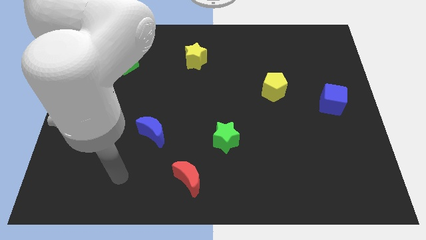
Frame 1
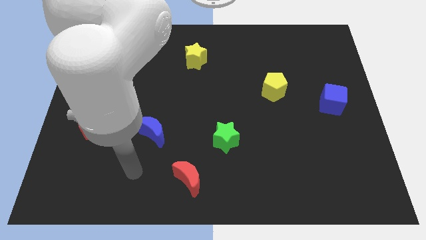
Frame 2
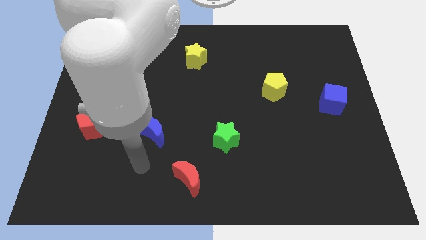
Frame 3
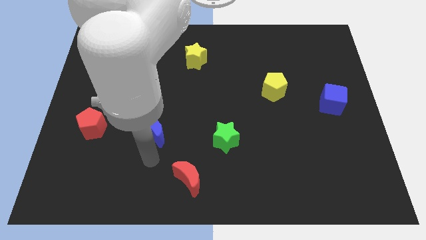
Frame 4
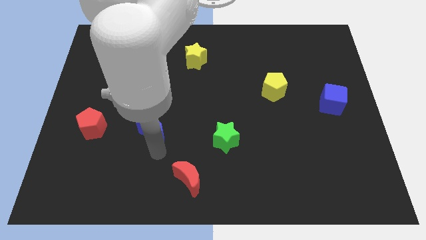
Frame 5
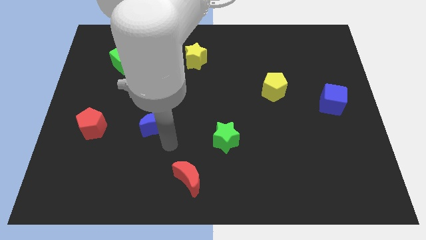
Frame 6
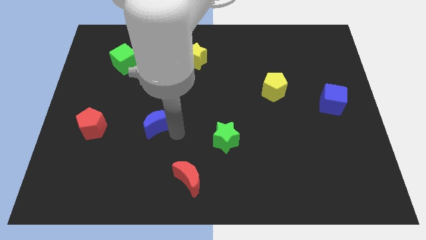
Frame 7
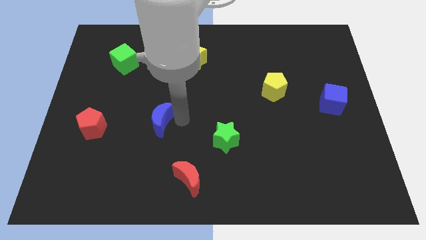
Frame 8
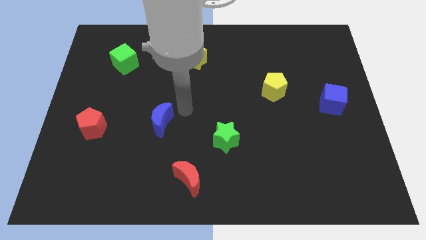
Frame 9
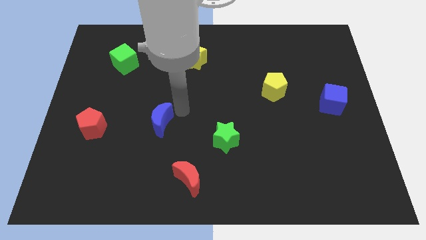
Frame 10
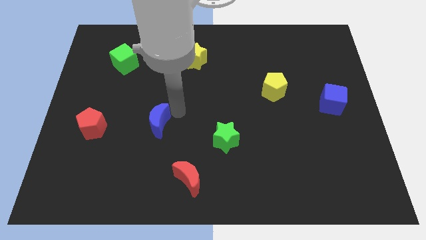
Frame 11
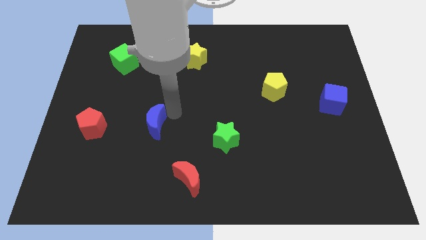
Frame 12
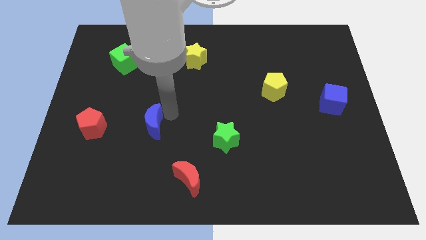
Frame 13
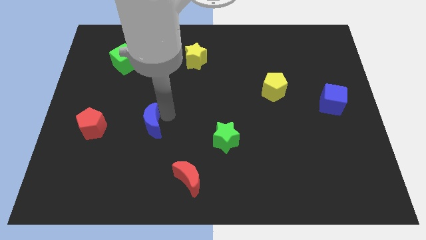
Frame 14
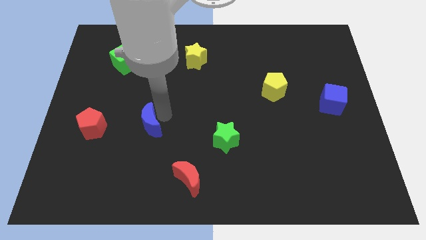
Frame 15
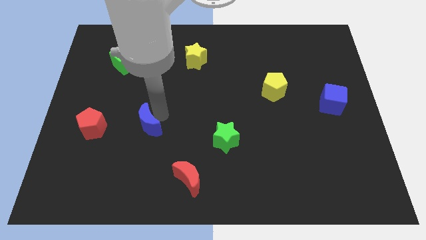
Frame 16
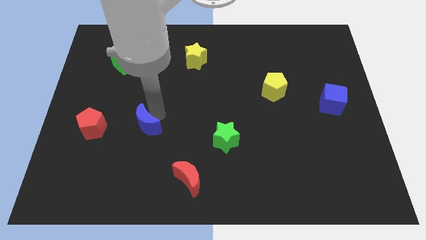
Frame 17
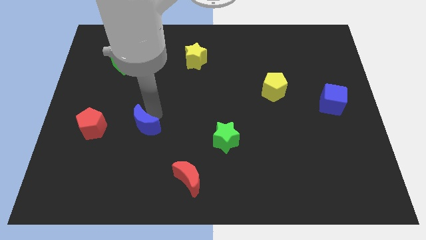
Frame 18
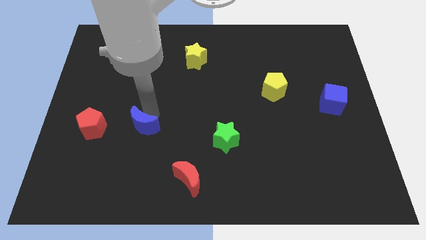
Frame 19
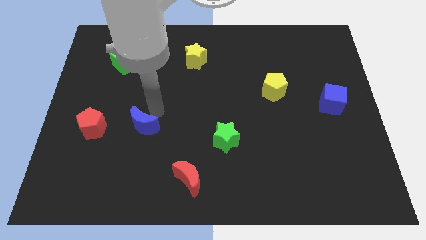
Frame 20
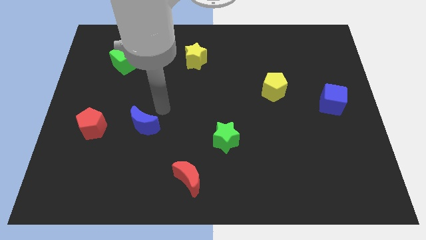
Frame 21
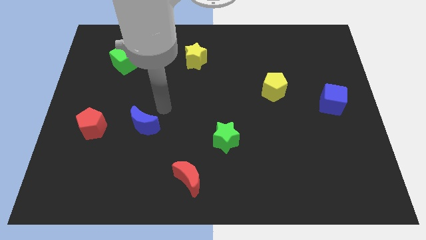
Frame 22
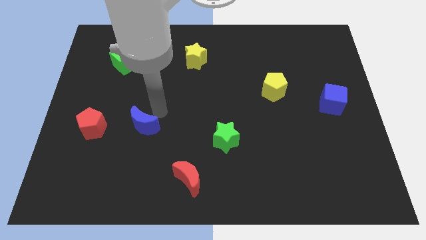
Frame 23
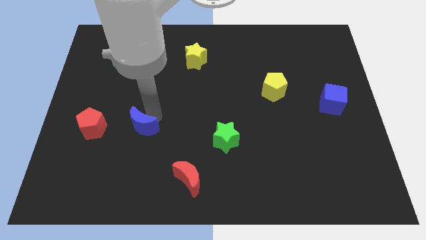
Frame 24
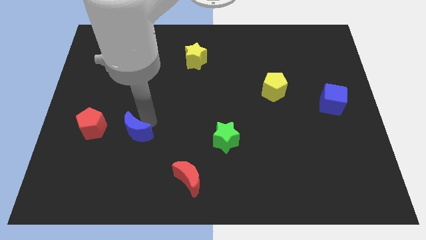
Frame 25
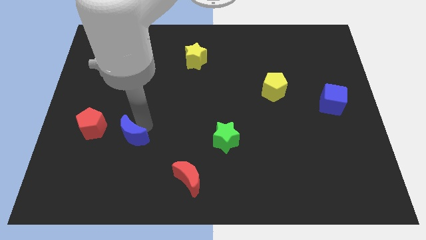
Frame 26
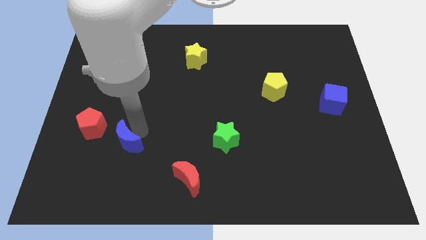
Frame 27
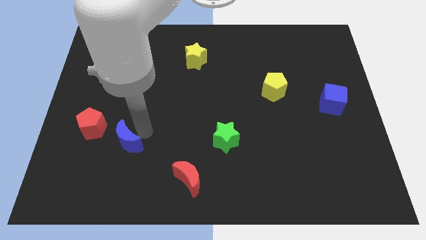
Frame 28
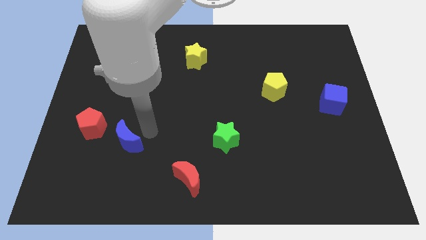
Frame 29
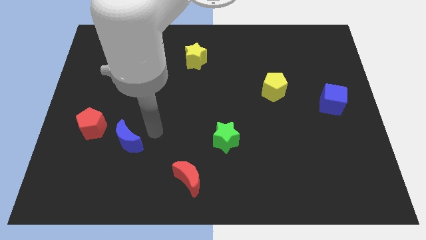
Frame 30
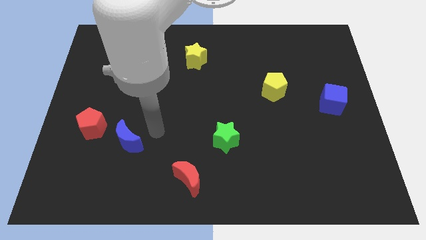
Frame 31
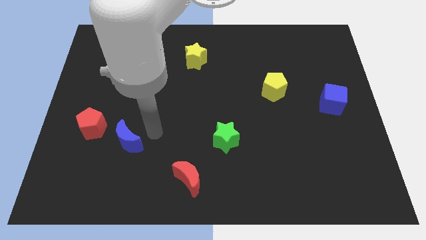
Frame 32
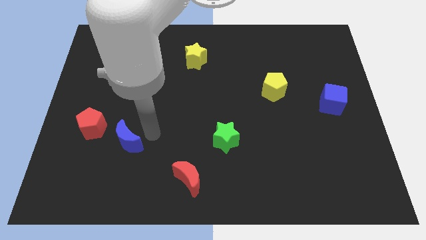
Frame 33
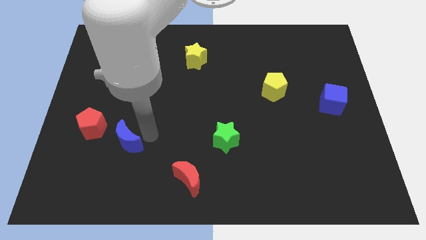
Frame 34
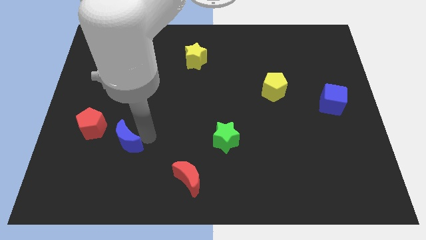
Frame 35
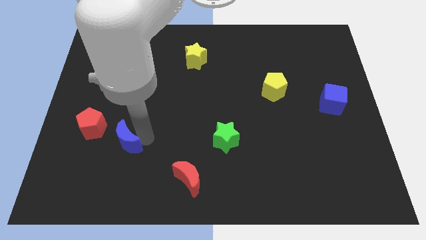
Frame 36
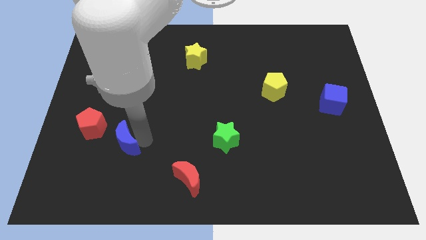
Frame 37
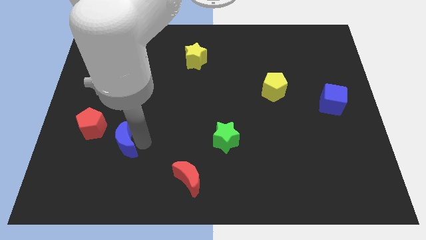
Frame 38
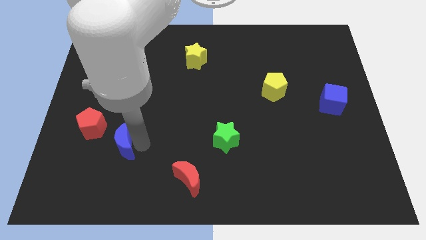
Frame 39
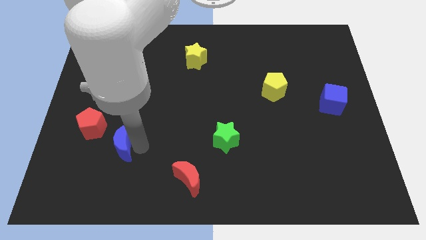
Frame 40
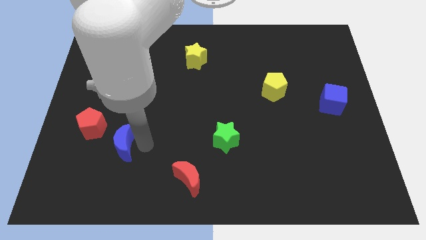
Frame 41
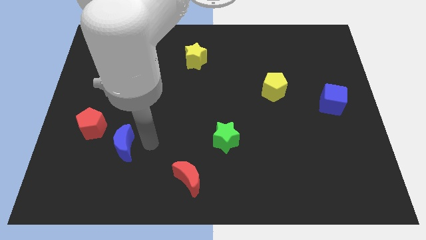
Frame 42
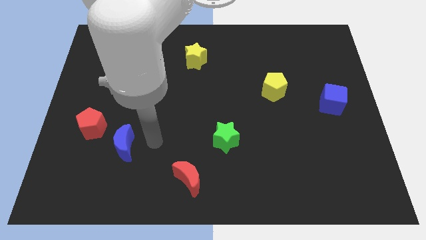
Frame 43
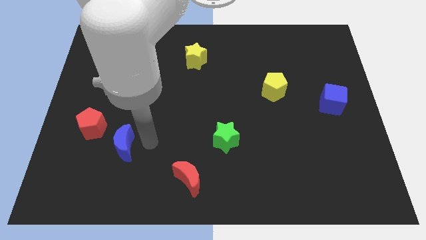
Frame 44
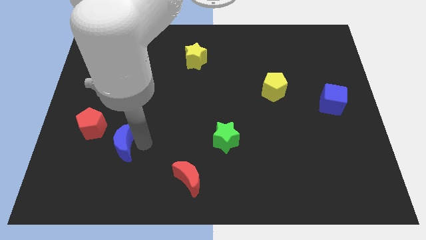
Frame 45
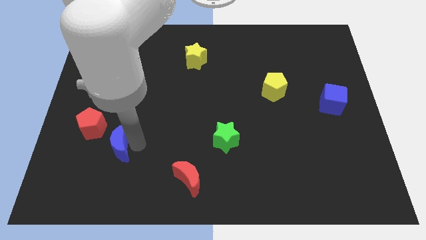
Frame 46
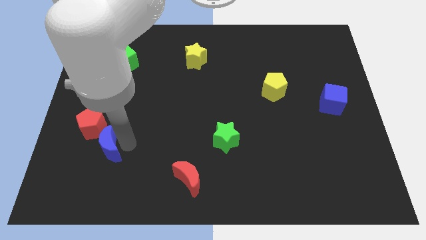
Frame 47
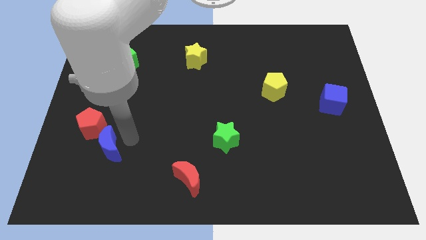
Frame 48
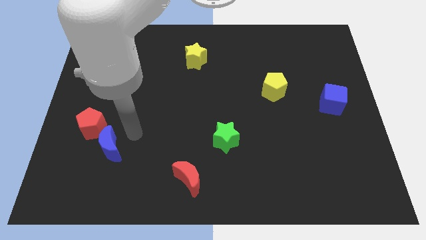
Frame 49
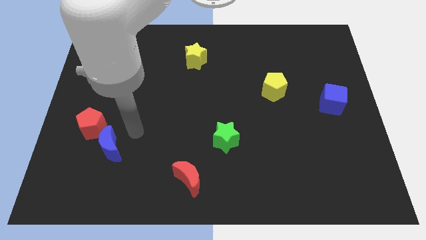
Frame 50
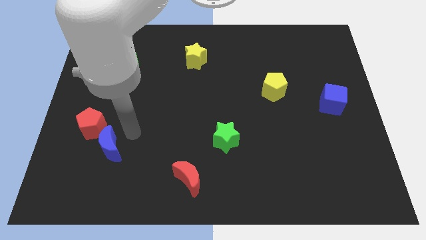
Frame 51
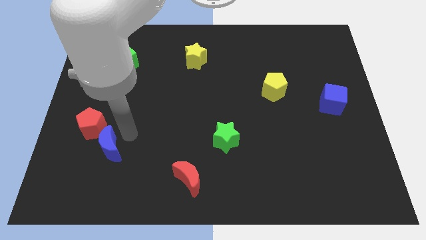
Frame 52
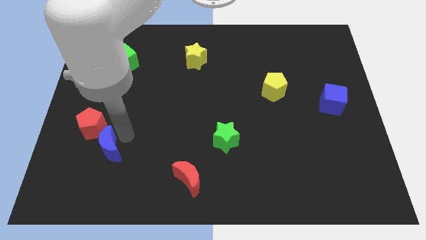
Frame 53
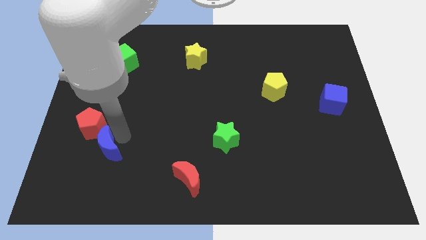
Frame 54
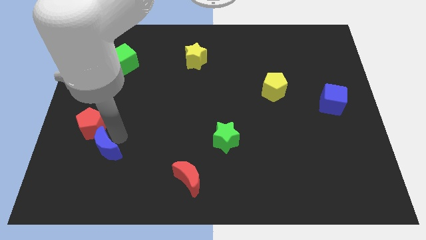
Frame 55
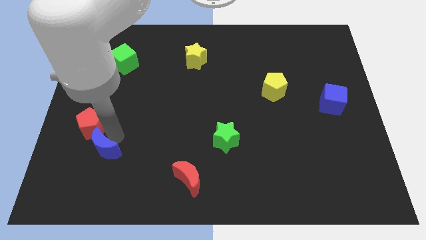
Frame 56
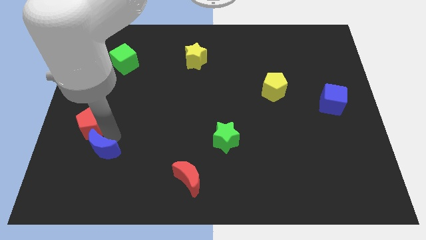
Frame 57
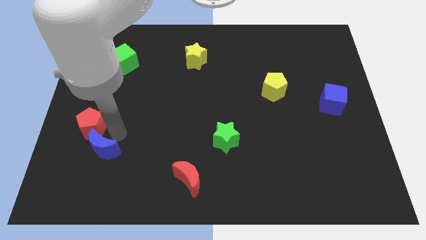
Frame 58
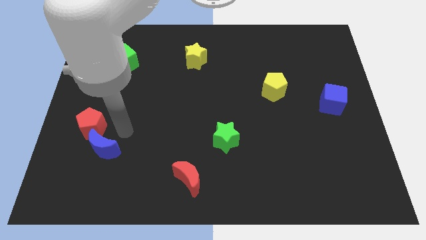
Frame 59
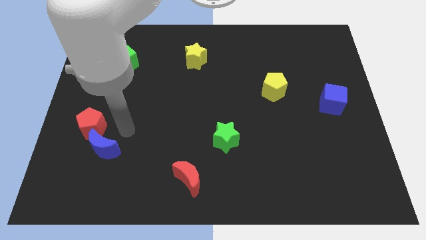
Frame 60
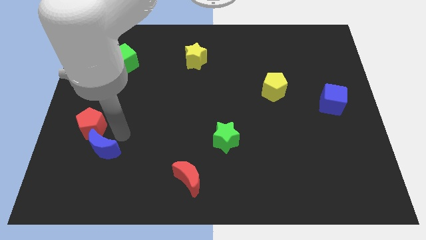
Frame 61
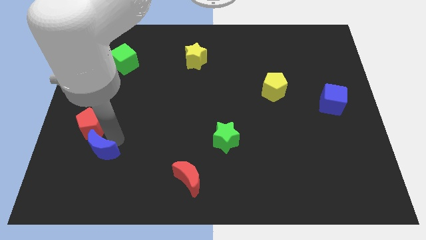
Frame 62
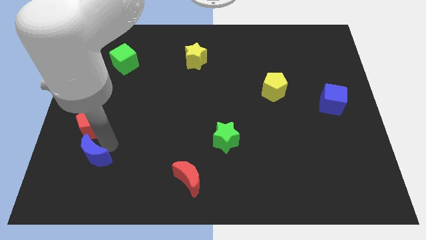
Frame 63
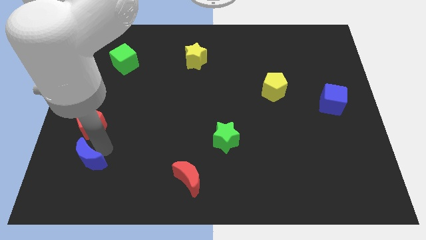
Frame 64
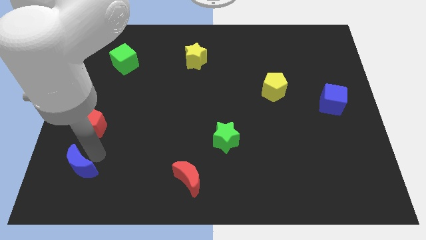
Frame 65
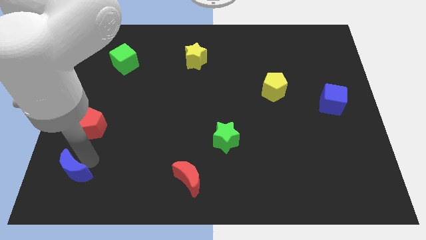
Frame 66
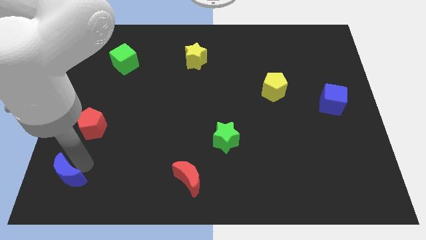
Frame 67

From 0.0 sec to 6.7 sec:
push the blue moon to the bottom left of the board
